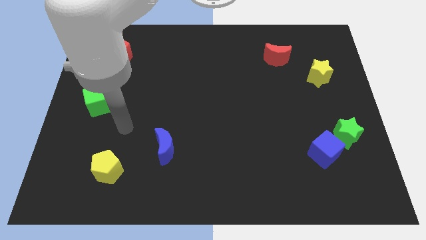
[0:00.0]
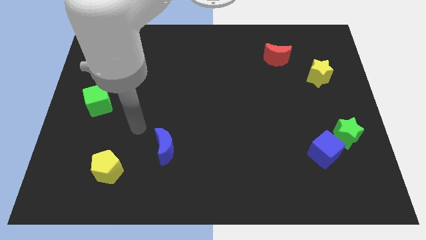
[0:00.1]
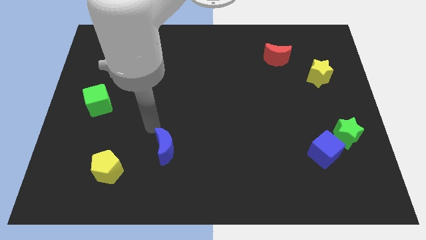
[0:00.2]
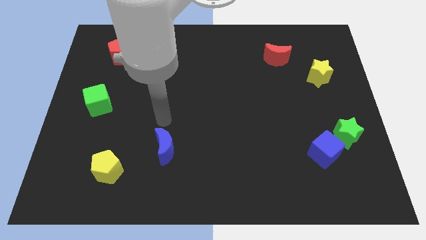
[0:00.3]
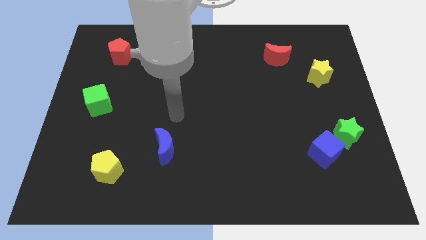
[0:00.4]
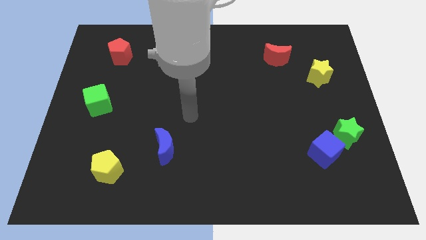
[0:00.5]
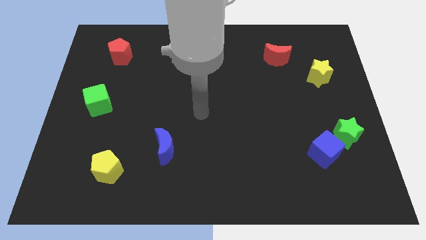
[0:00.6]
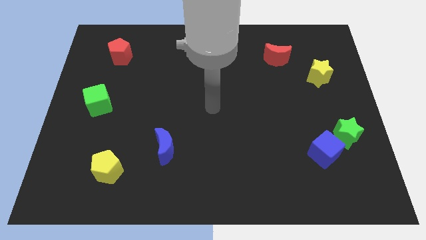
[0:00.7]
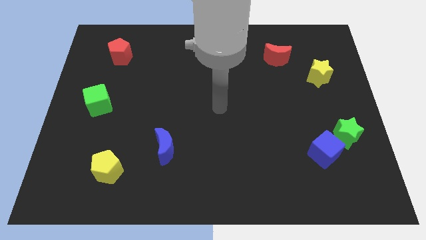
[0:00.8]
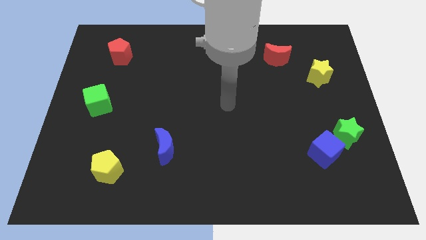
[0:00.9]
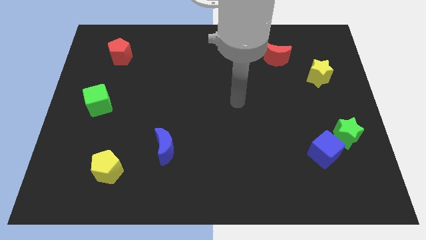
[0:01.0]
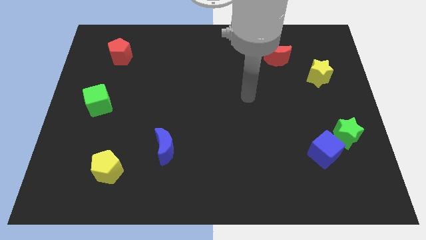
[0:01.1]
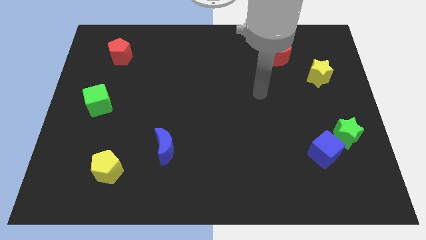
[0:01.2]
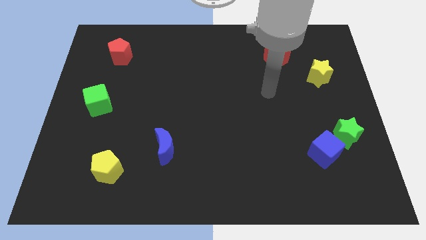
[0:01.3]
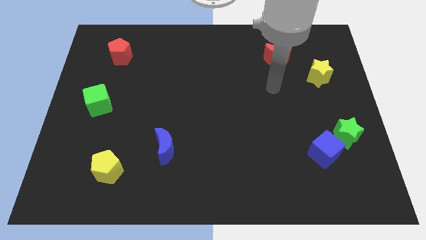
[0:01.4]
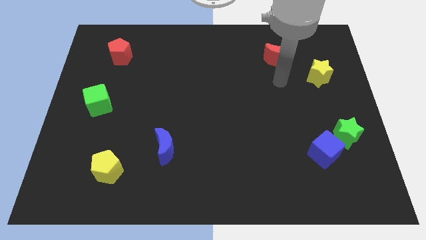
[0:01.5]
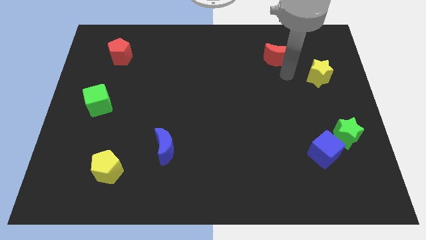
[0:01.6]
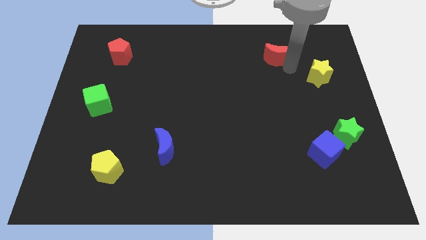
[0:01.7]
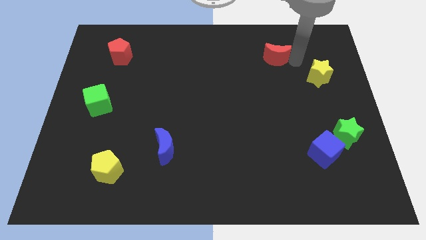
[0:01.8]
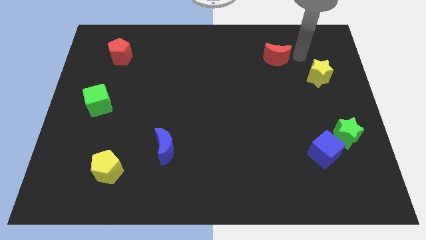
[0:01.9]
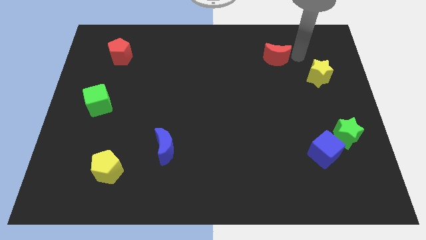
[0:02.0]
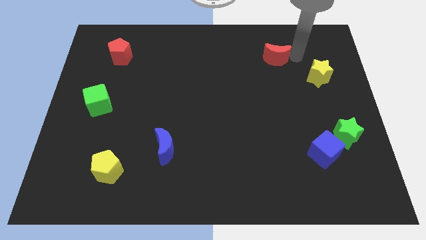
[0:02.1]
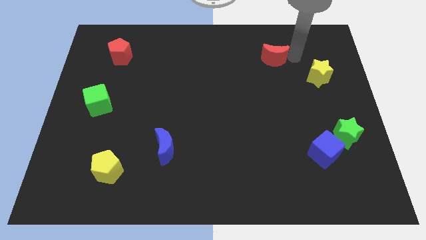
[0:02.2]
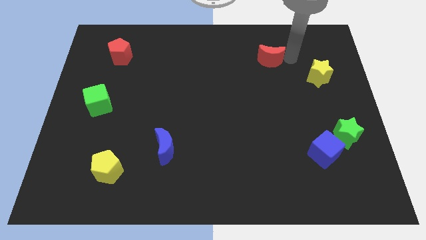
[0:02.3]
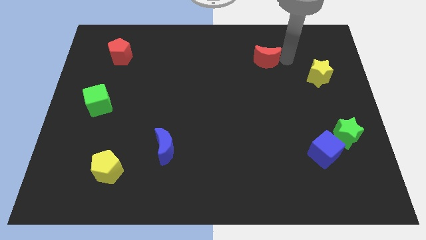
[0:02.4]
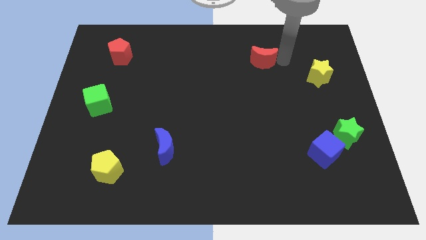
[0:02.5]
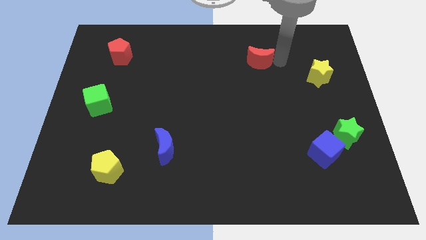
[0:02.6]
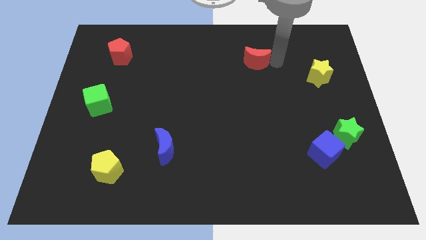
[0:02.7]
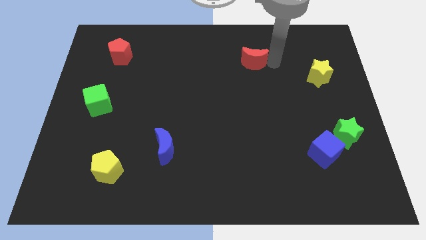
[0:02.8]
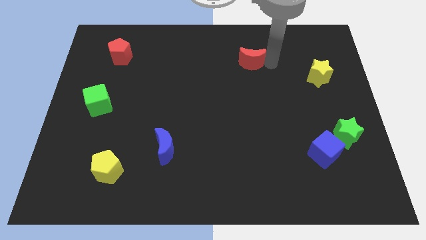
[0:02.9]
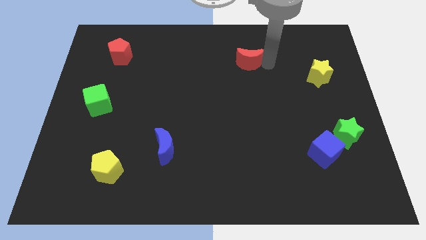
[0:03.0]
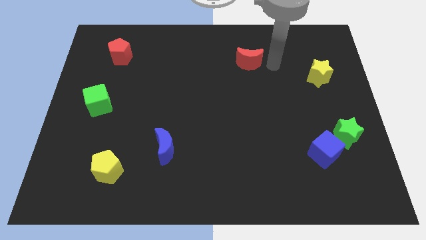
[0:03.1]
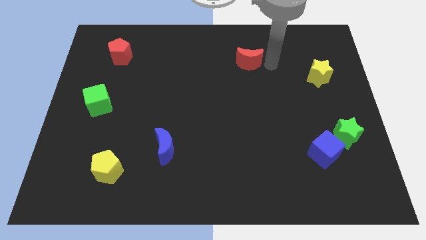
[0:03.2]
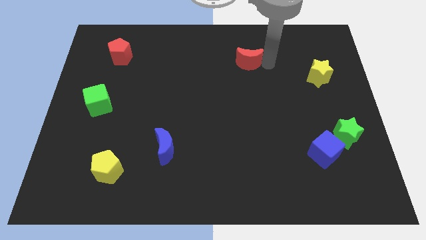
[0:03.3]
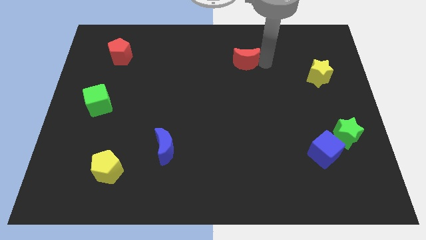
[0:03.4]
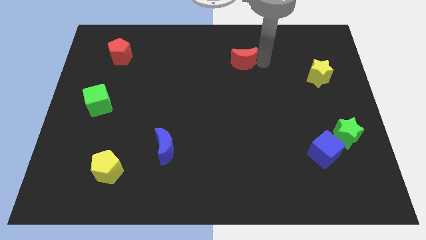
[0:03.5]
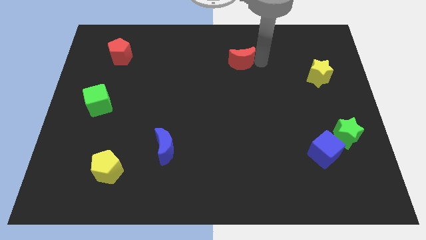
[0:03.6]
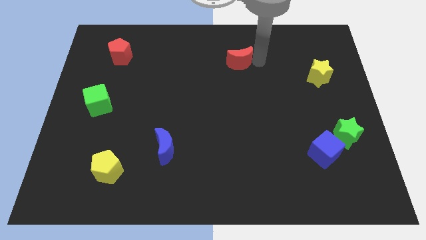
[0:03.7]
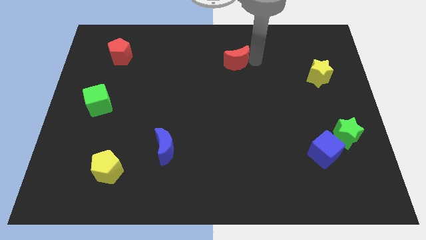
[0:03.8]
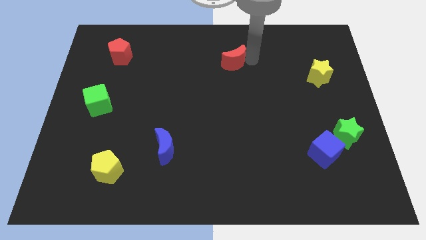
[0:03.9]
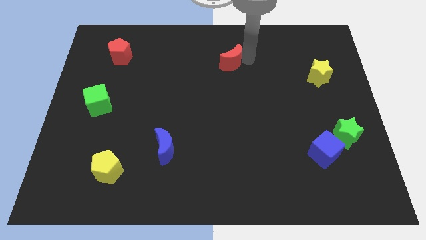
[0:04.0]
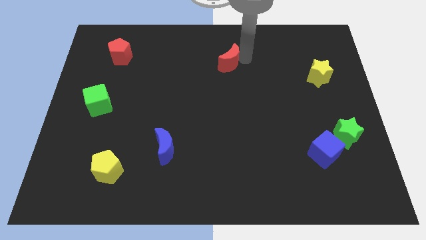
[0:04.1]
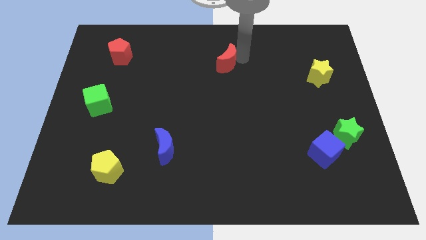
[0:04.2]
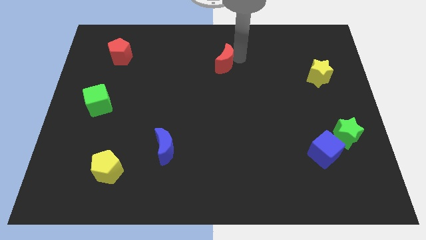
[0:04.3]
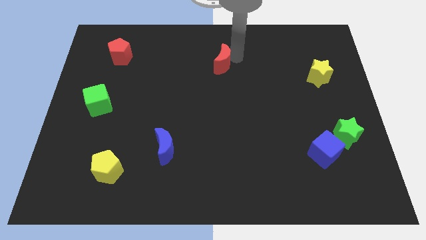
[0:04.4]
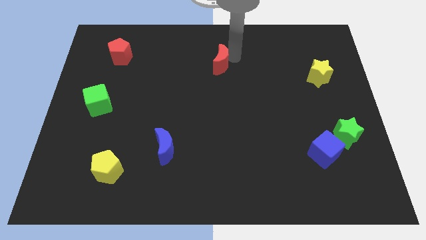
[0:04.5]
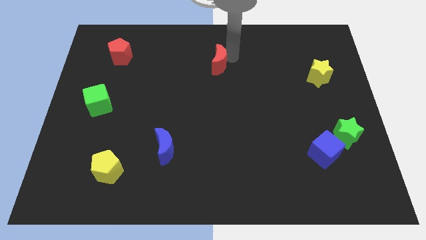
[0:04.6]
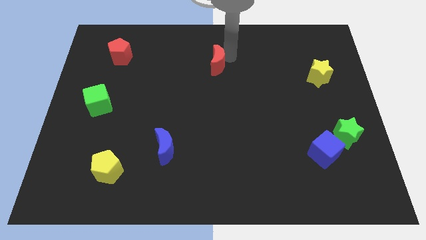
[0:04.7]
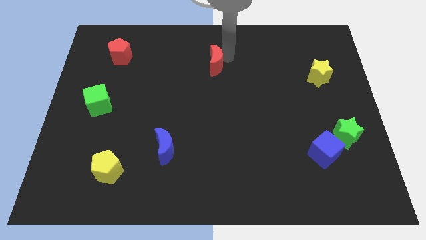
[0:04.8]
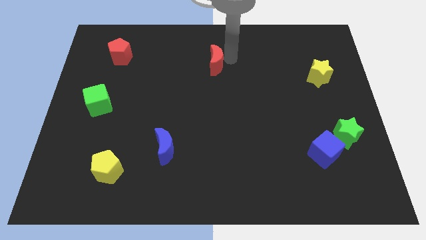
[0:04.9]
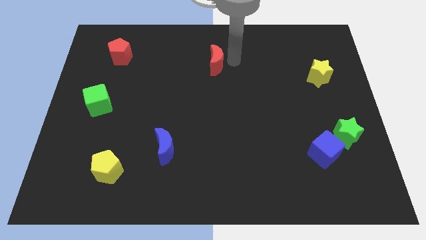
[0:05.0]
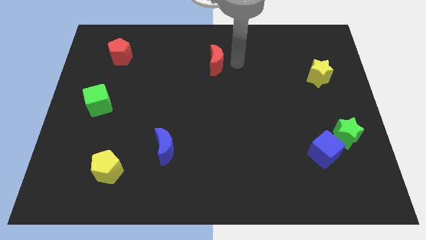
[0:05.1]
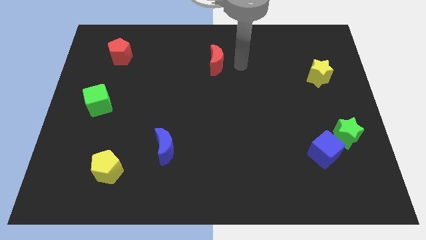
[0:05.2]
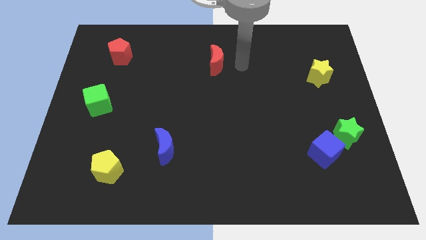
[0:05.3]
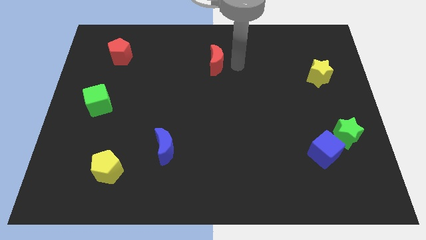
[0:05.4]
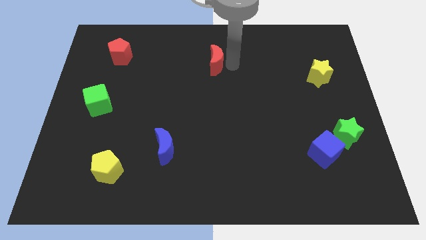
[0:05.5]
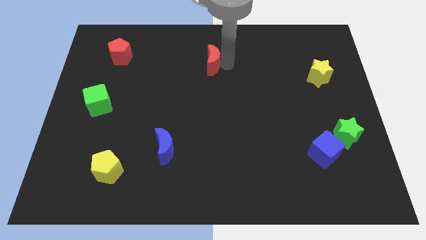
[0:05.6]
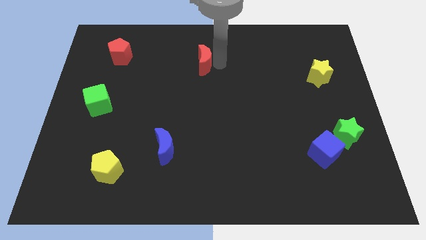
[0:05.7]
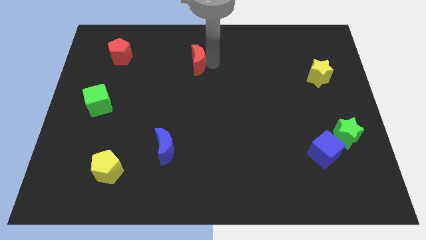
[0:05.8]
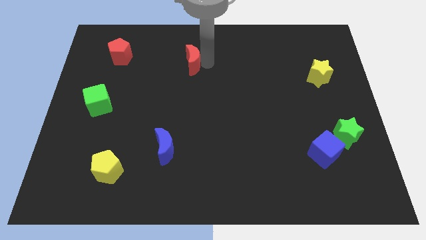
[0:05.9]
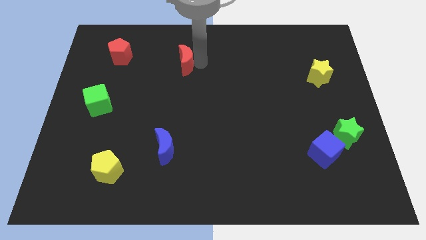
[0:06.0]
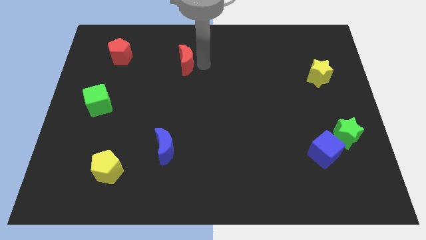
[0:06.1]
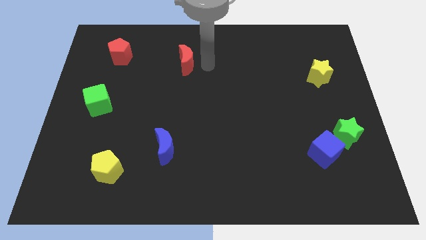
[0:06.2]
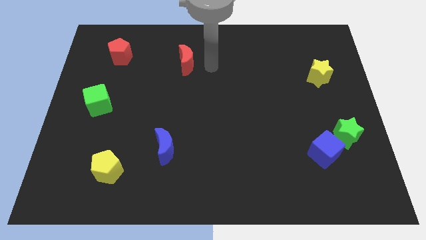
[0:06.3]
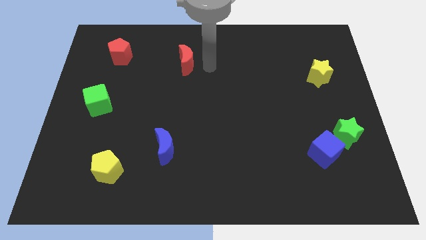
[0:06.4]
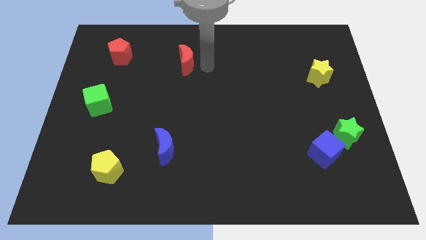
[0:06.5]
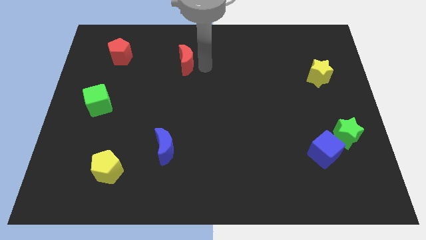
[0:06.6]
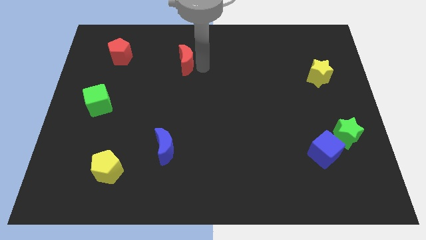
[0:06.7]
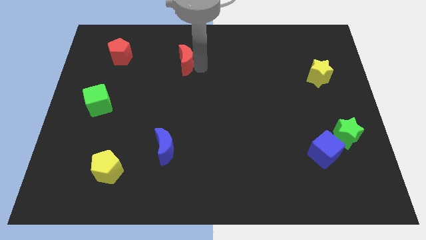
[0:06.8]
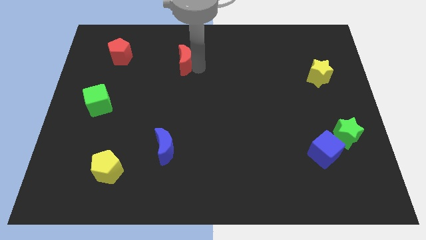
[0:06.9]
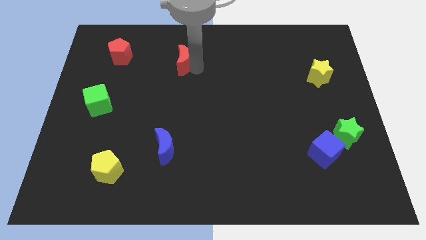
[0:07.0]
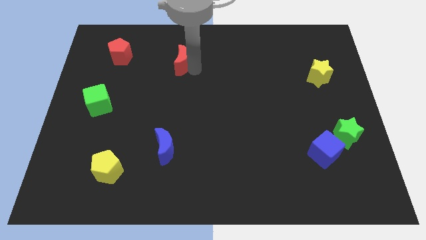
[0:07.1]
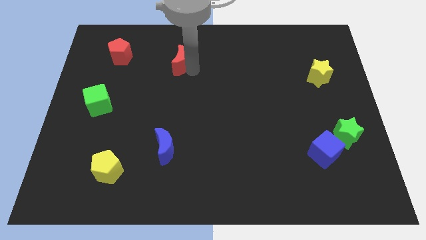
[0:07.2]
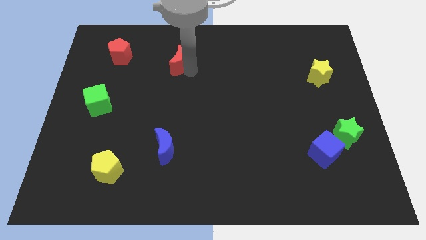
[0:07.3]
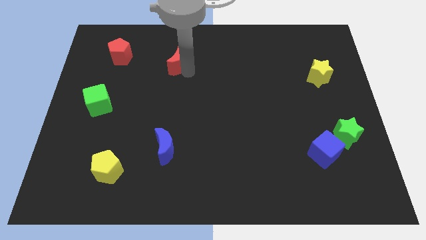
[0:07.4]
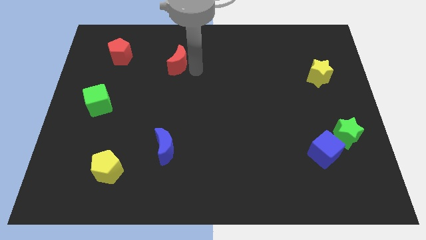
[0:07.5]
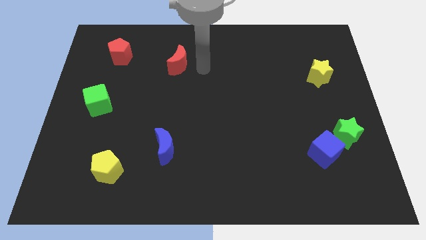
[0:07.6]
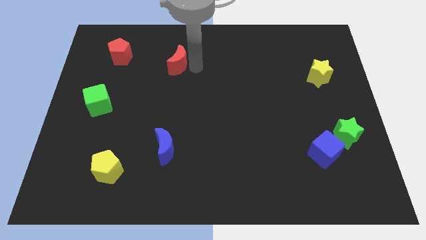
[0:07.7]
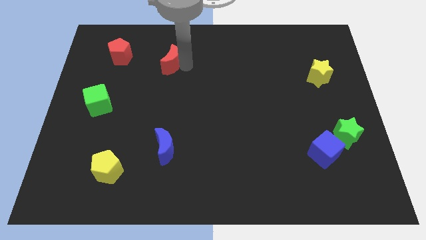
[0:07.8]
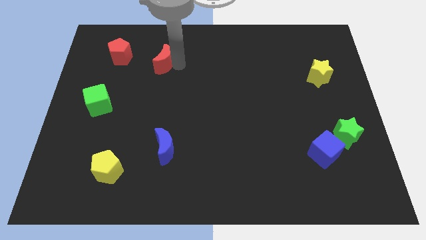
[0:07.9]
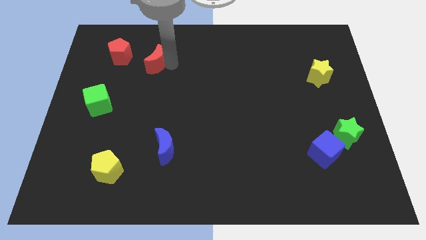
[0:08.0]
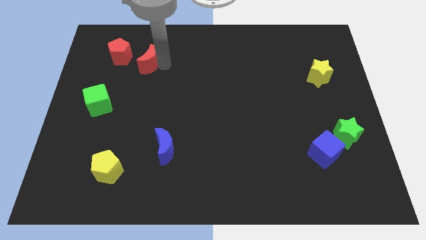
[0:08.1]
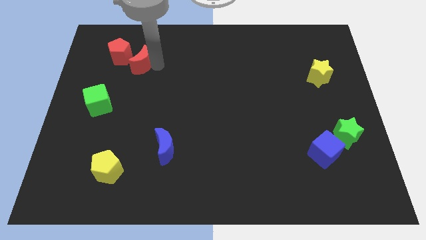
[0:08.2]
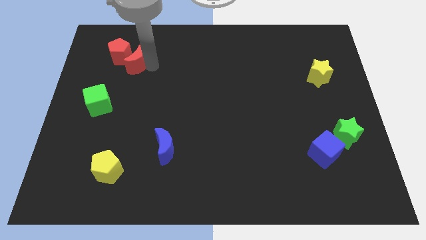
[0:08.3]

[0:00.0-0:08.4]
push the red moon to the red pentagon
